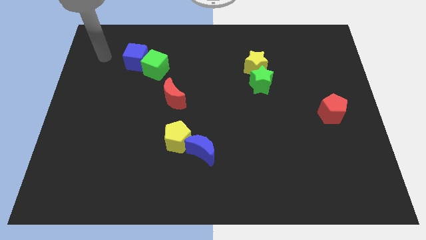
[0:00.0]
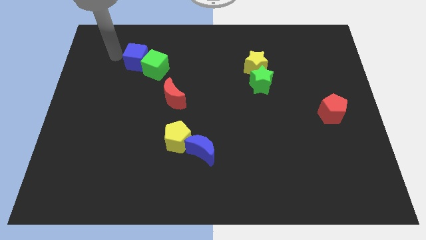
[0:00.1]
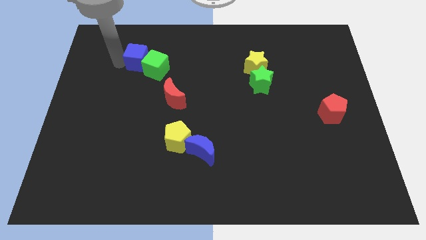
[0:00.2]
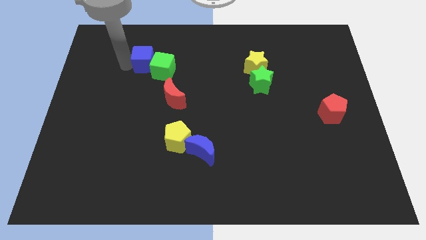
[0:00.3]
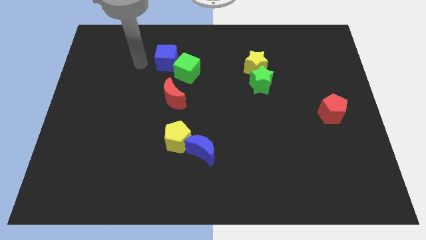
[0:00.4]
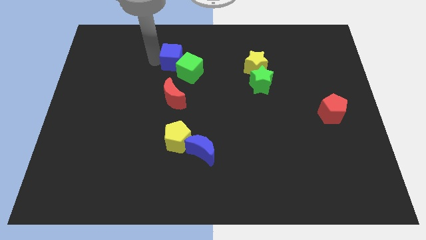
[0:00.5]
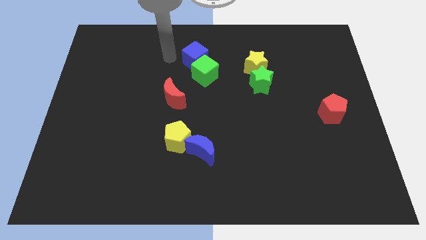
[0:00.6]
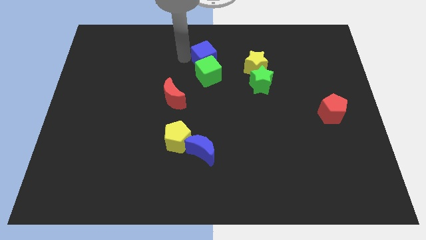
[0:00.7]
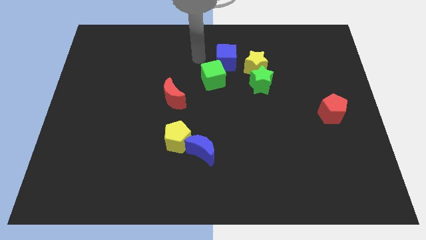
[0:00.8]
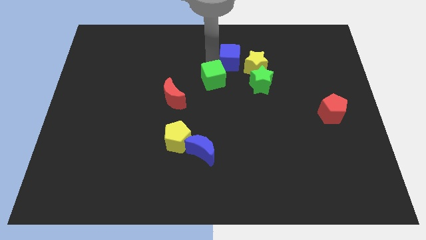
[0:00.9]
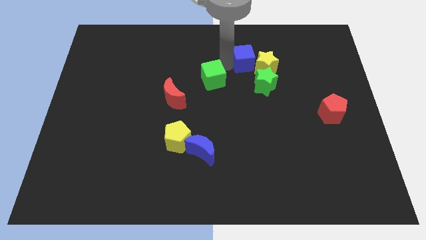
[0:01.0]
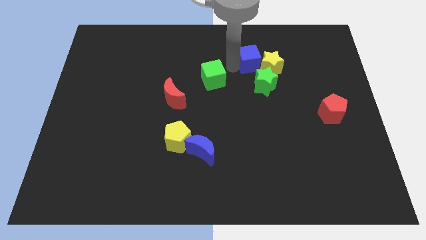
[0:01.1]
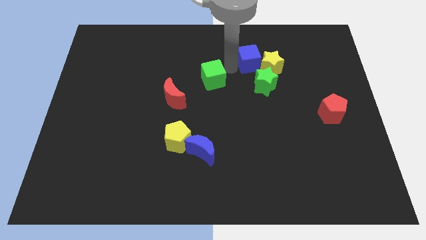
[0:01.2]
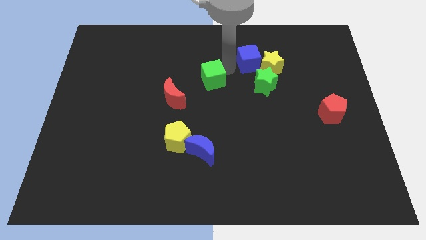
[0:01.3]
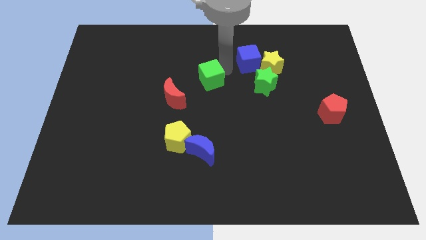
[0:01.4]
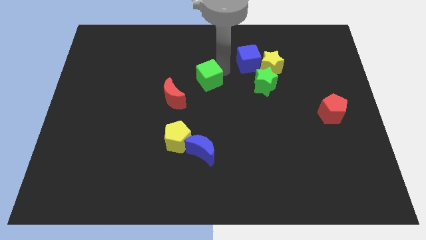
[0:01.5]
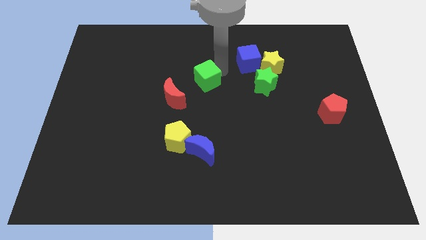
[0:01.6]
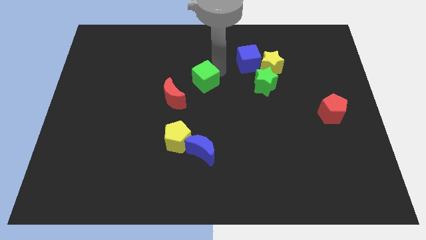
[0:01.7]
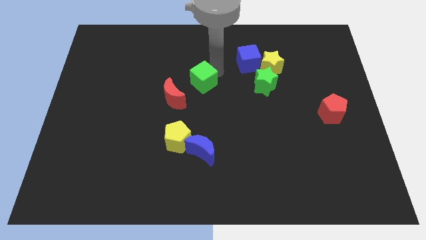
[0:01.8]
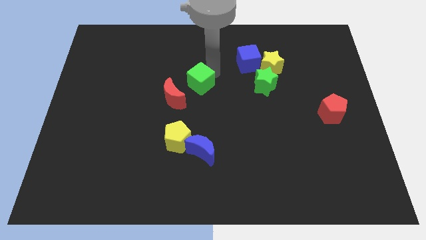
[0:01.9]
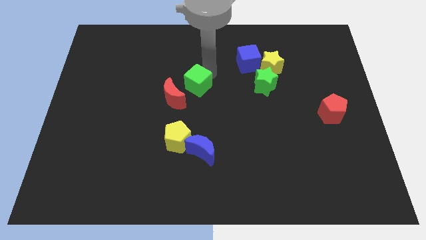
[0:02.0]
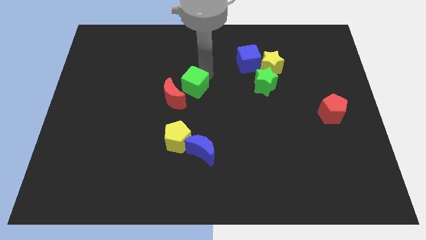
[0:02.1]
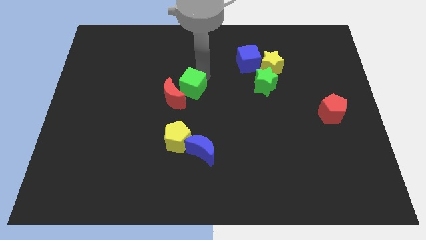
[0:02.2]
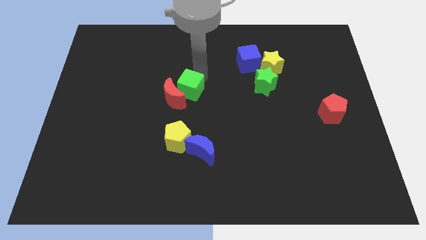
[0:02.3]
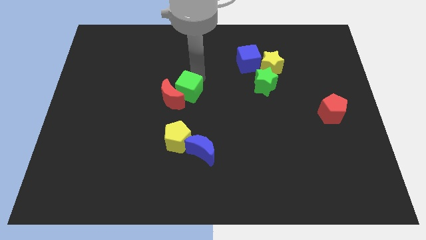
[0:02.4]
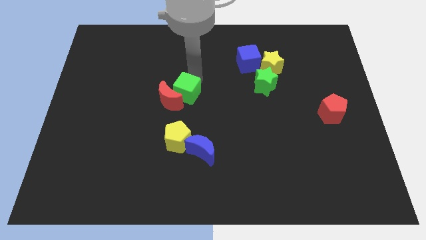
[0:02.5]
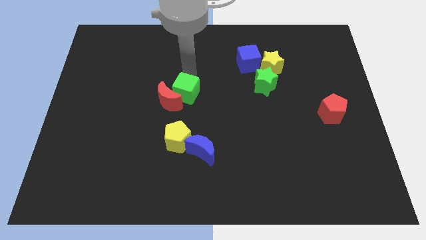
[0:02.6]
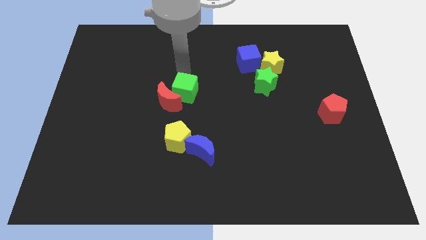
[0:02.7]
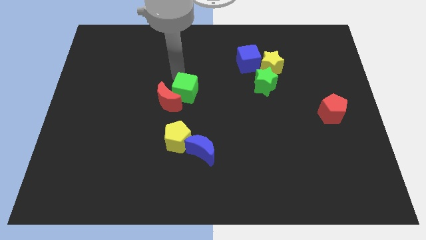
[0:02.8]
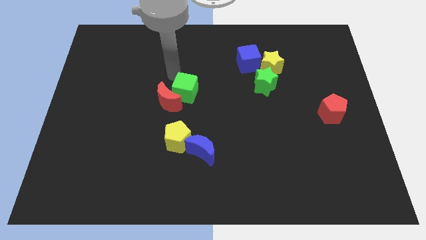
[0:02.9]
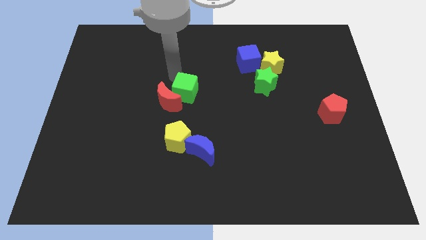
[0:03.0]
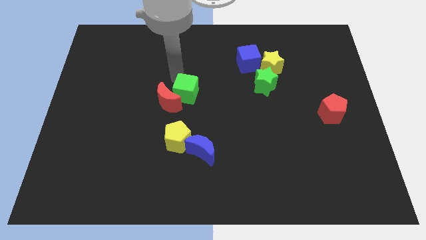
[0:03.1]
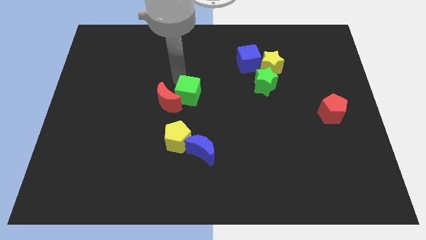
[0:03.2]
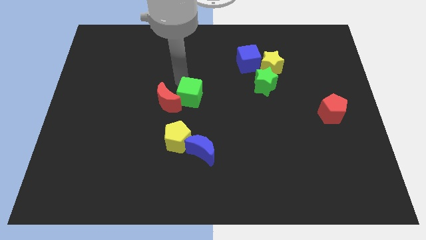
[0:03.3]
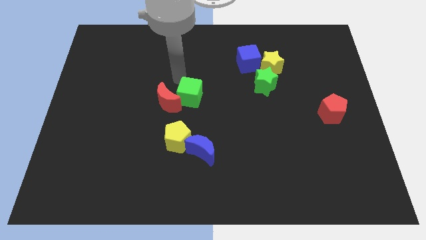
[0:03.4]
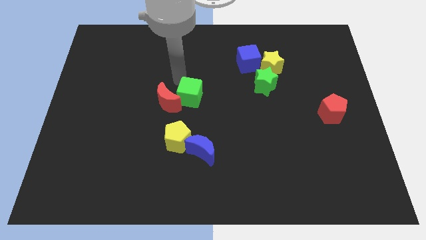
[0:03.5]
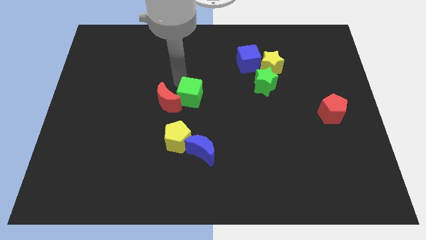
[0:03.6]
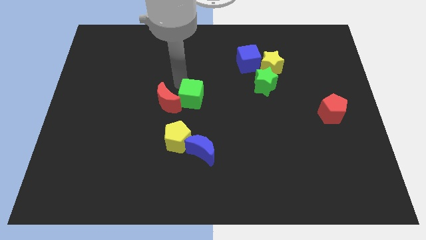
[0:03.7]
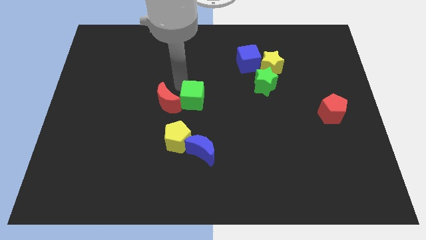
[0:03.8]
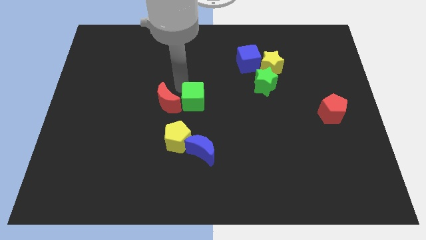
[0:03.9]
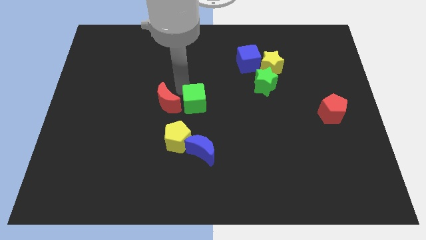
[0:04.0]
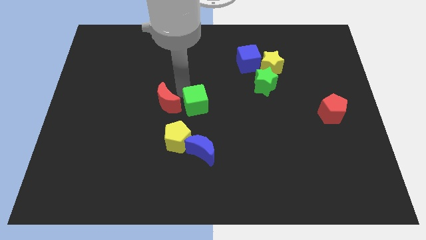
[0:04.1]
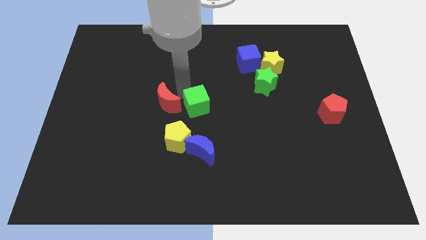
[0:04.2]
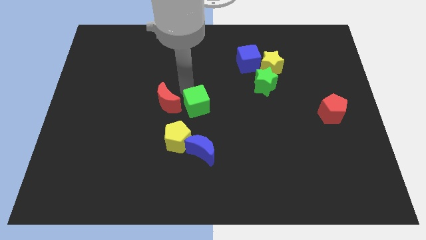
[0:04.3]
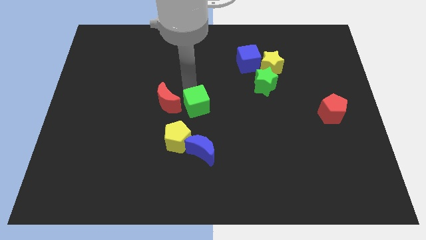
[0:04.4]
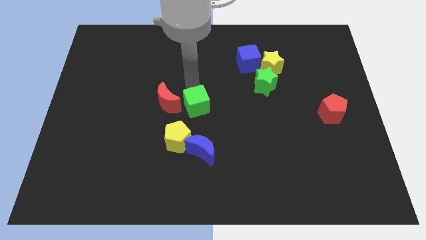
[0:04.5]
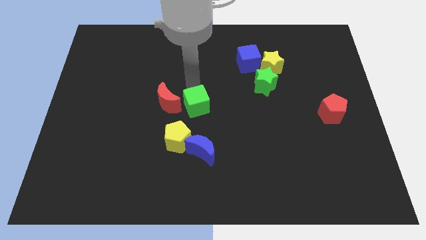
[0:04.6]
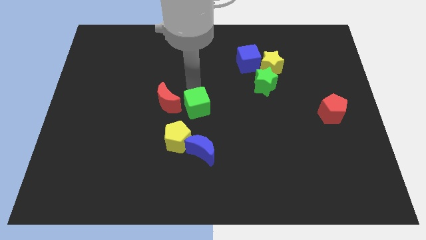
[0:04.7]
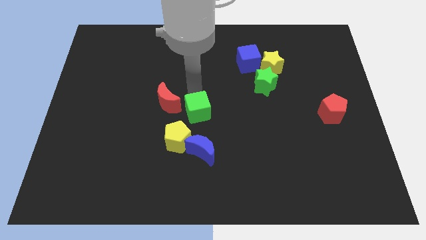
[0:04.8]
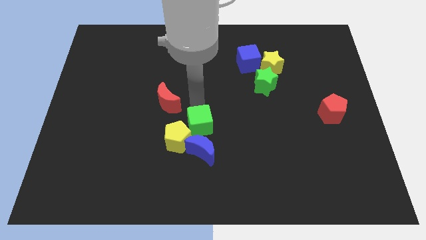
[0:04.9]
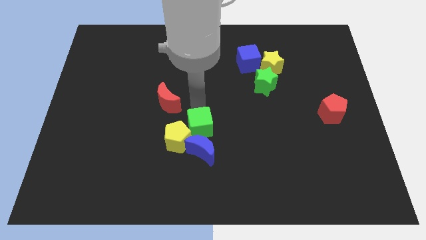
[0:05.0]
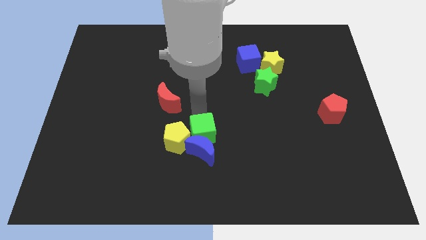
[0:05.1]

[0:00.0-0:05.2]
put the green cube close to the blue moon

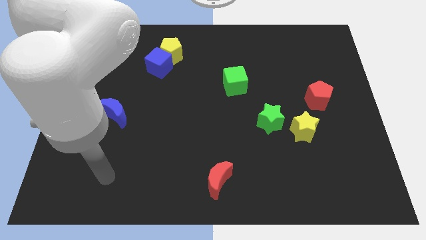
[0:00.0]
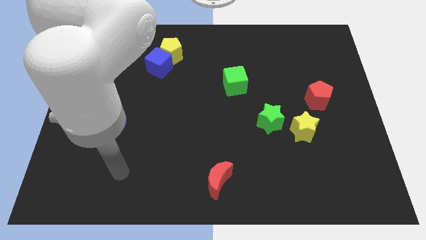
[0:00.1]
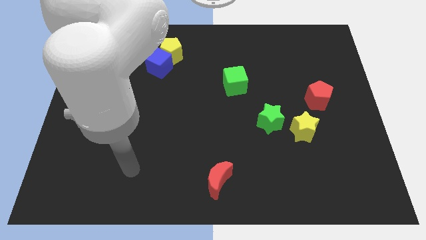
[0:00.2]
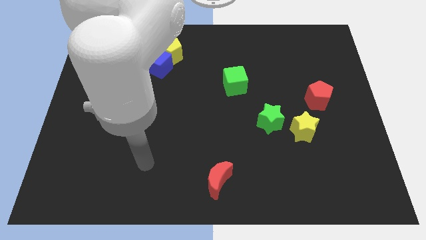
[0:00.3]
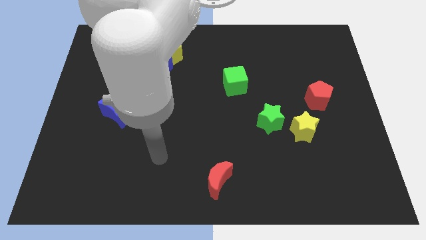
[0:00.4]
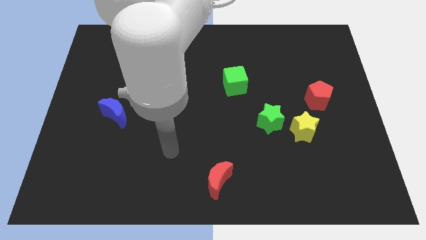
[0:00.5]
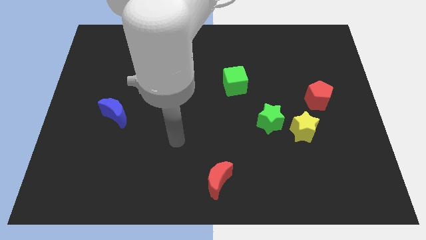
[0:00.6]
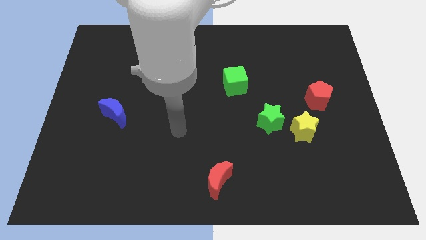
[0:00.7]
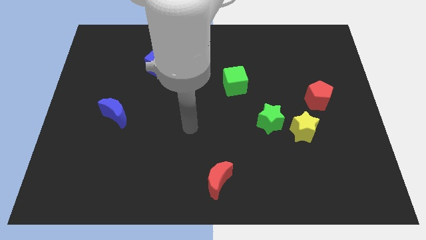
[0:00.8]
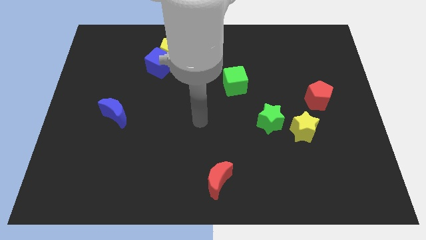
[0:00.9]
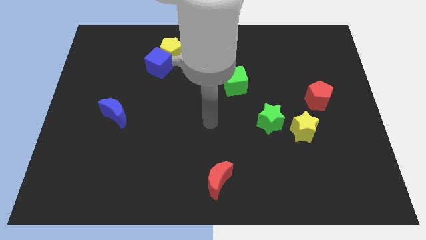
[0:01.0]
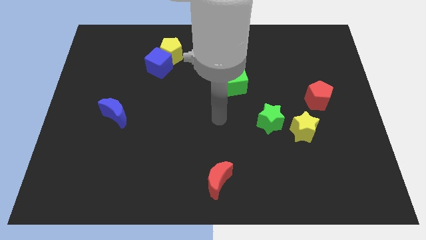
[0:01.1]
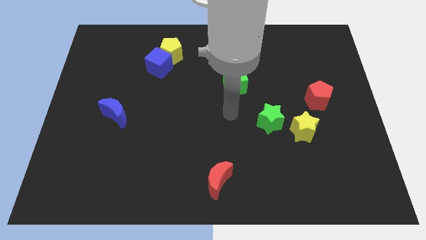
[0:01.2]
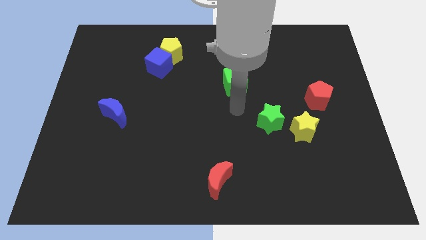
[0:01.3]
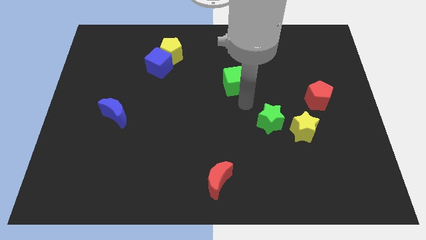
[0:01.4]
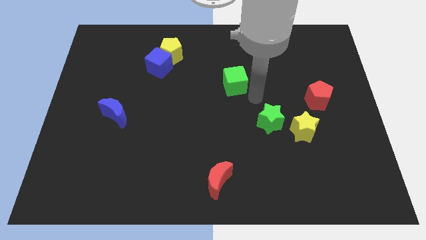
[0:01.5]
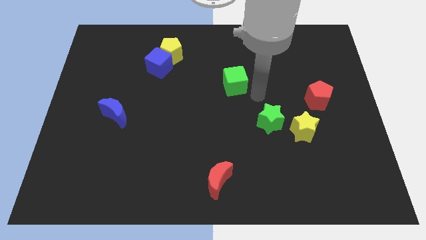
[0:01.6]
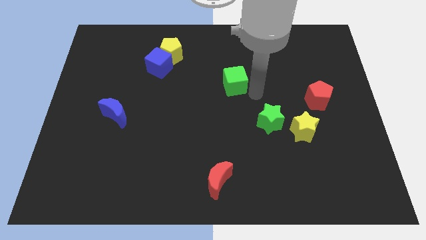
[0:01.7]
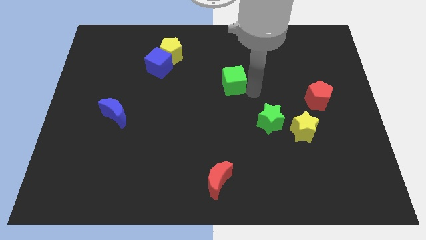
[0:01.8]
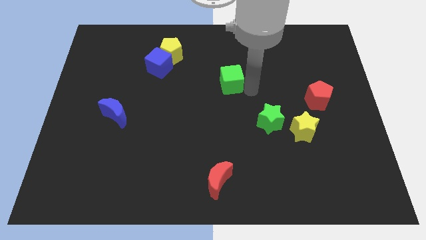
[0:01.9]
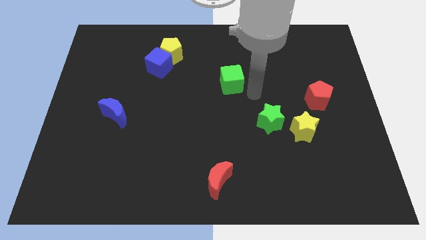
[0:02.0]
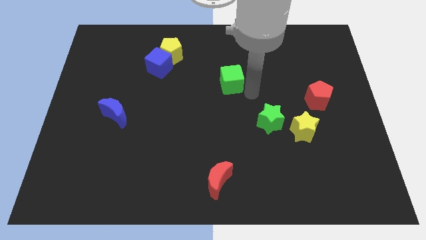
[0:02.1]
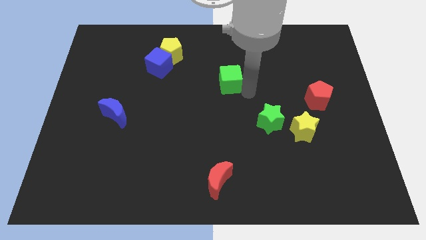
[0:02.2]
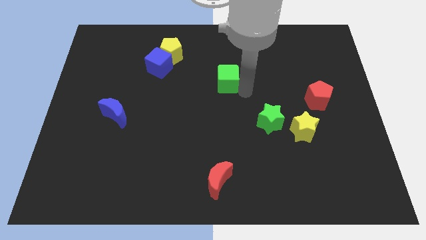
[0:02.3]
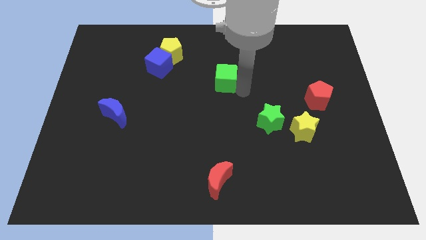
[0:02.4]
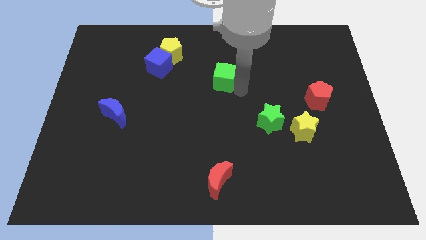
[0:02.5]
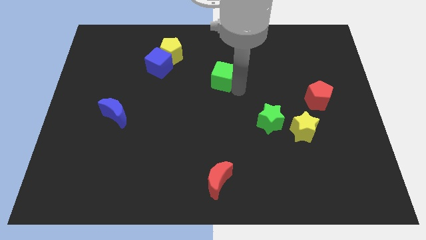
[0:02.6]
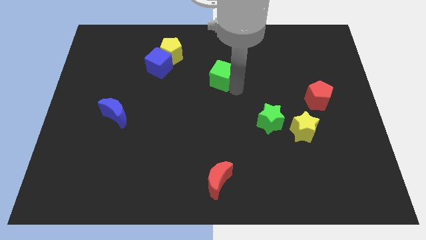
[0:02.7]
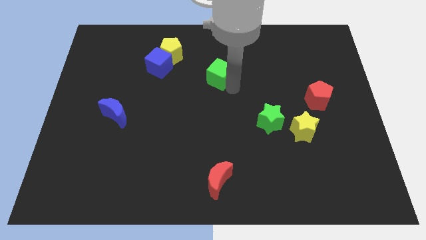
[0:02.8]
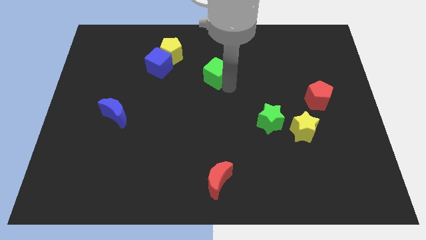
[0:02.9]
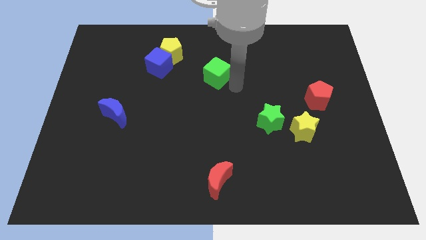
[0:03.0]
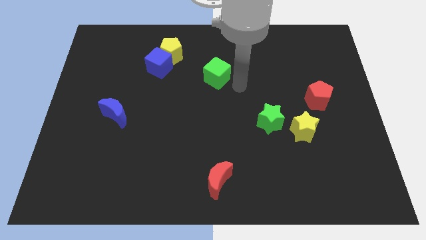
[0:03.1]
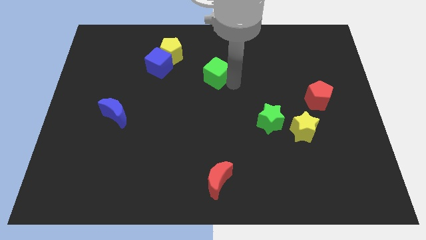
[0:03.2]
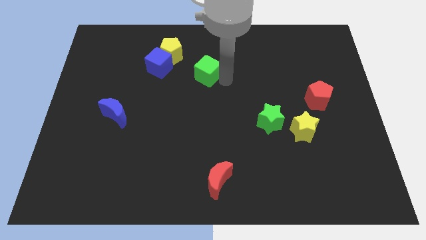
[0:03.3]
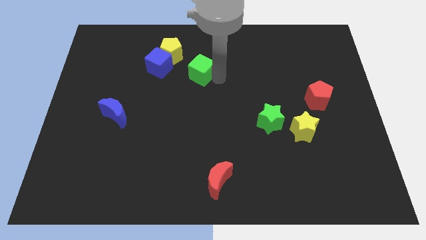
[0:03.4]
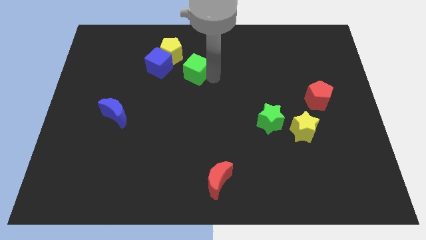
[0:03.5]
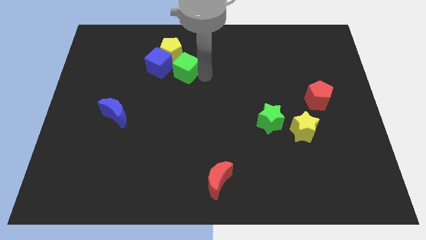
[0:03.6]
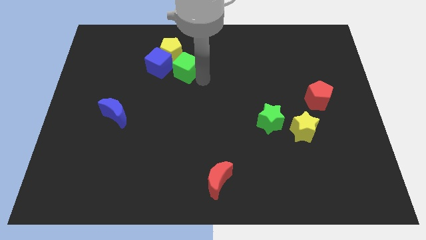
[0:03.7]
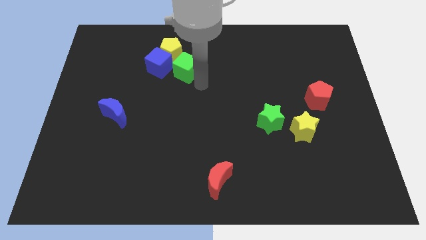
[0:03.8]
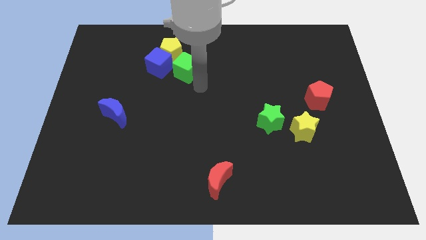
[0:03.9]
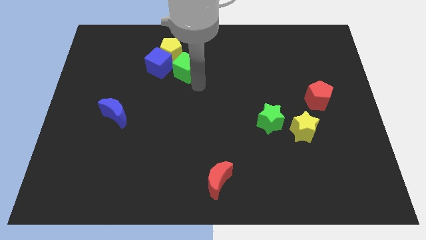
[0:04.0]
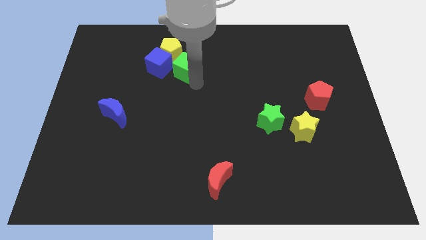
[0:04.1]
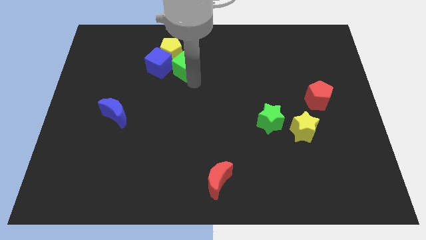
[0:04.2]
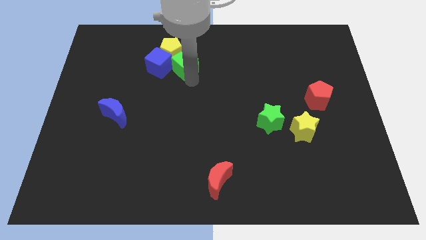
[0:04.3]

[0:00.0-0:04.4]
slide the green cube next to the yellow pentagon
